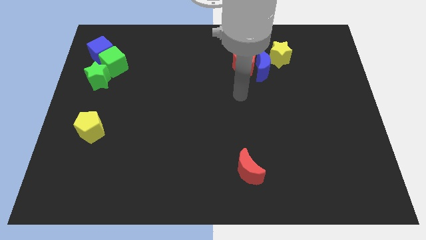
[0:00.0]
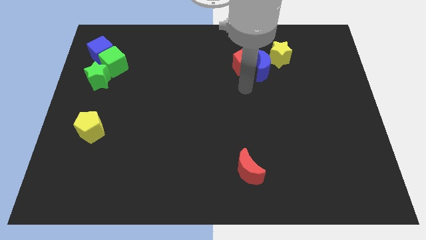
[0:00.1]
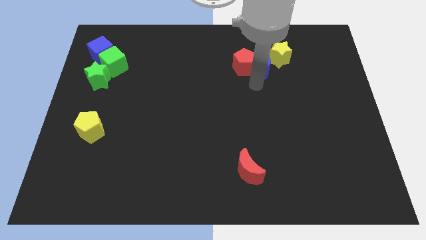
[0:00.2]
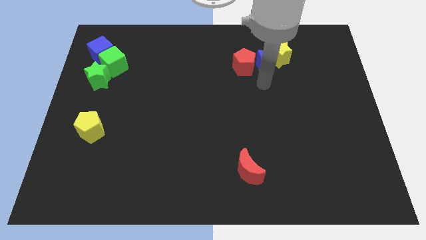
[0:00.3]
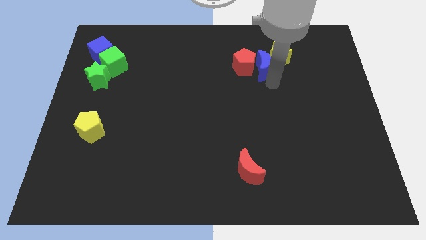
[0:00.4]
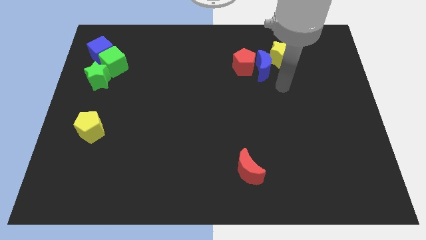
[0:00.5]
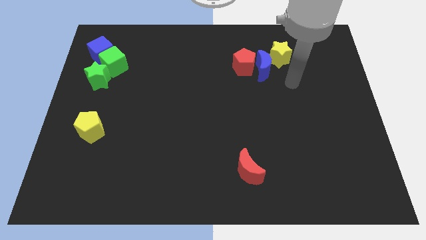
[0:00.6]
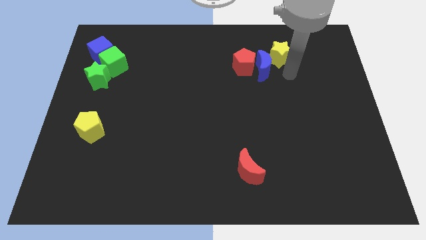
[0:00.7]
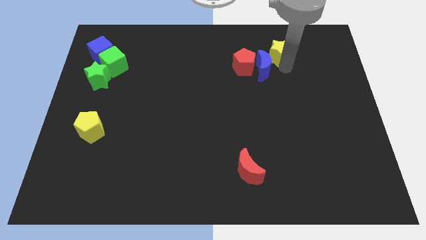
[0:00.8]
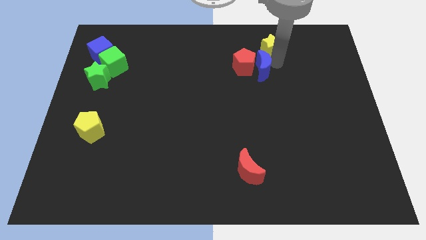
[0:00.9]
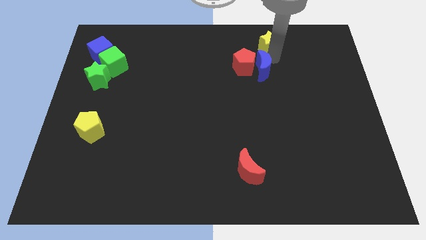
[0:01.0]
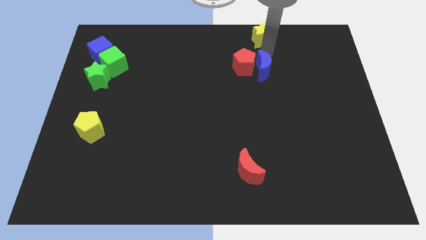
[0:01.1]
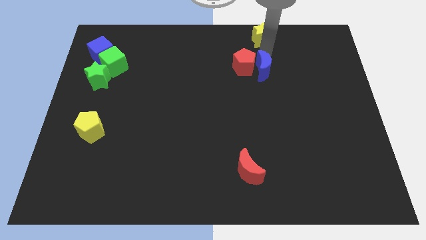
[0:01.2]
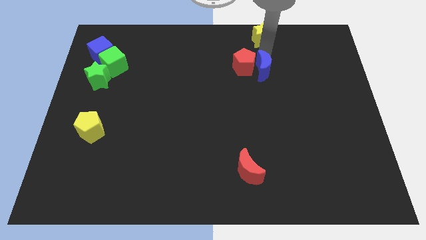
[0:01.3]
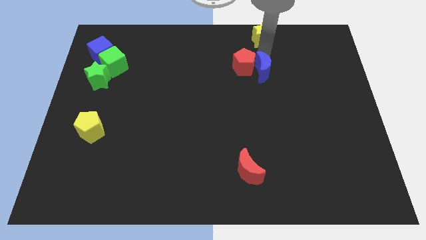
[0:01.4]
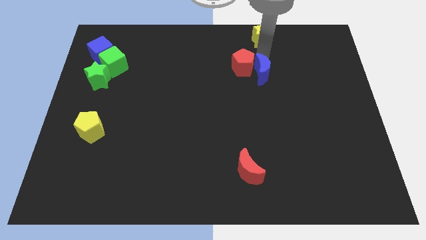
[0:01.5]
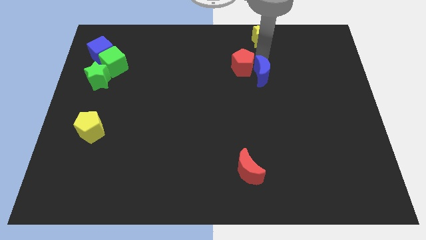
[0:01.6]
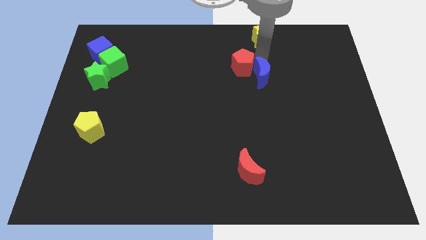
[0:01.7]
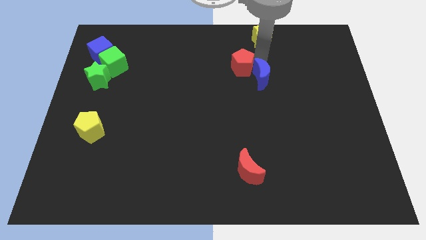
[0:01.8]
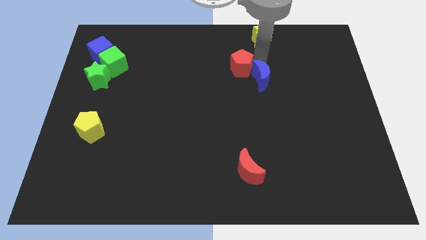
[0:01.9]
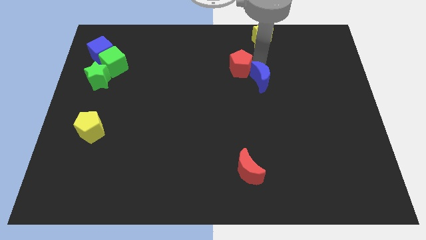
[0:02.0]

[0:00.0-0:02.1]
separate the blue moon from the red pentagon and yellow star

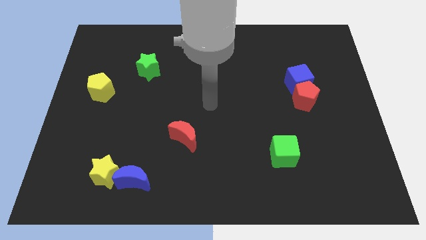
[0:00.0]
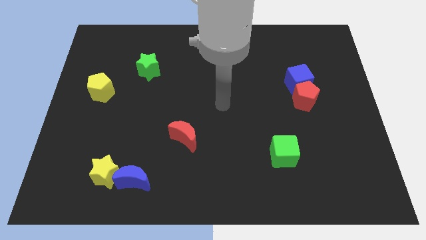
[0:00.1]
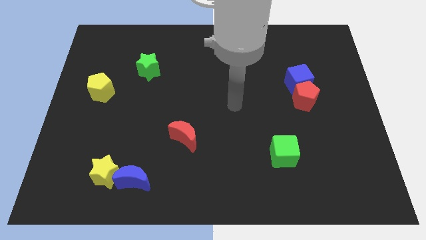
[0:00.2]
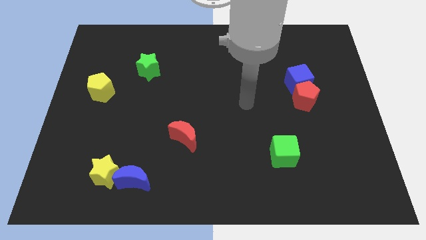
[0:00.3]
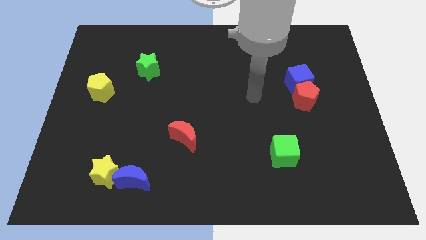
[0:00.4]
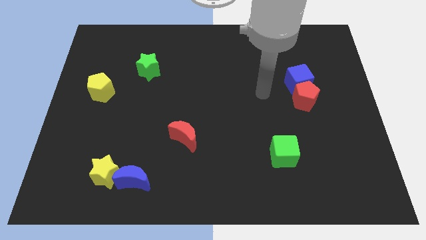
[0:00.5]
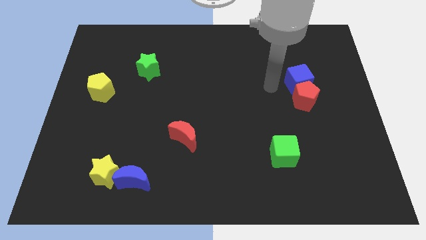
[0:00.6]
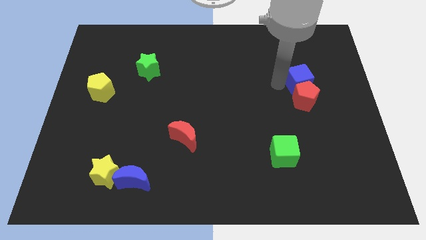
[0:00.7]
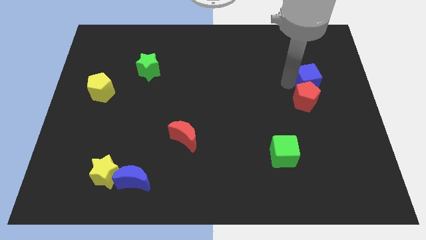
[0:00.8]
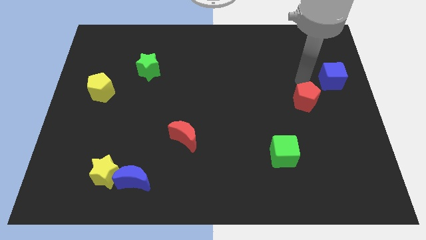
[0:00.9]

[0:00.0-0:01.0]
pull the red pentagon apart from the blue cube

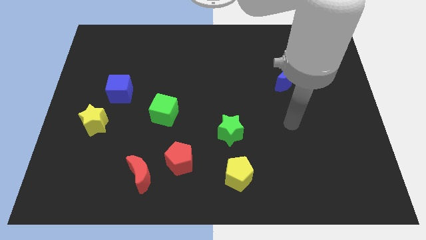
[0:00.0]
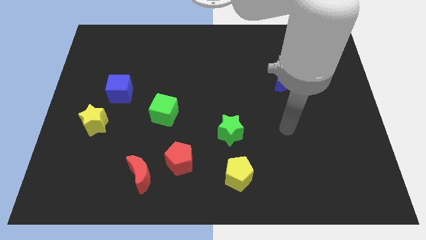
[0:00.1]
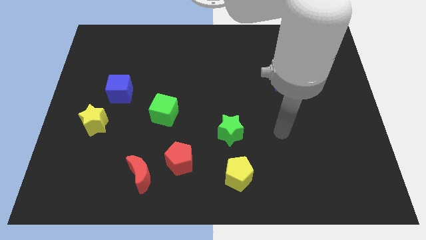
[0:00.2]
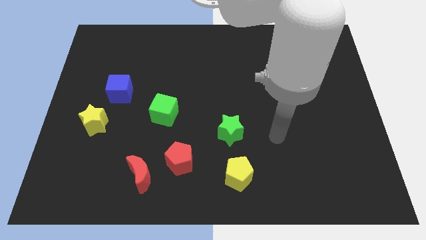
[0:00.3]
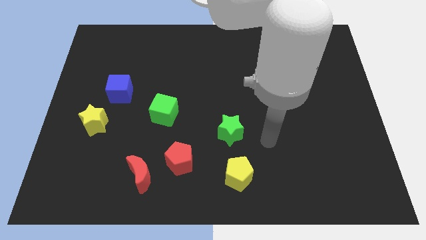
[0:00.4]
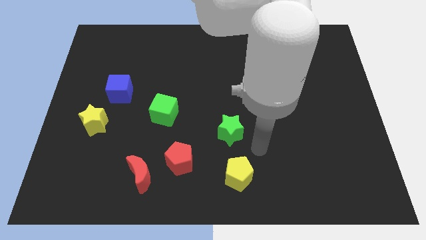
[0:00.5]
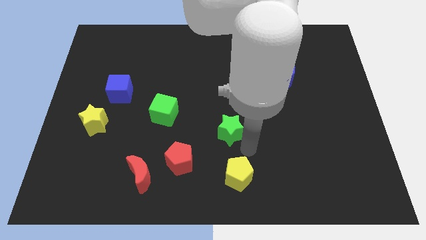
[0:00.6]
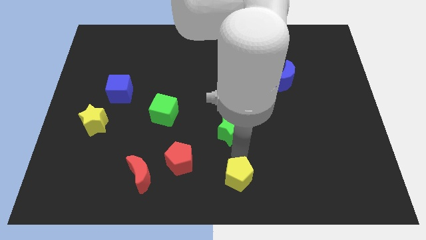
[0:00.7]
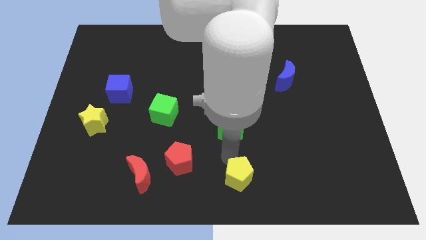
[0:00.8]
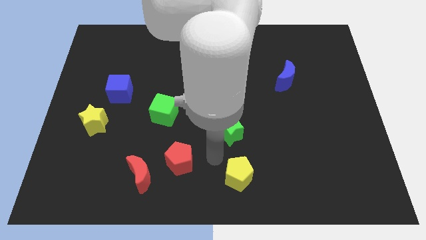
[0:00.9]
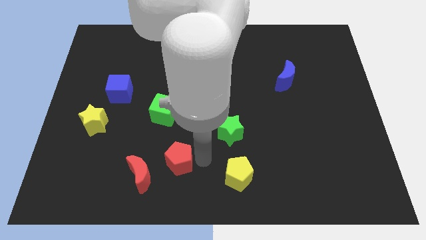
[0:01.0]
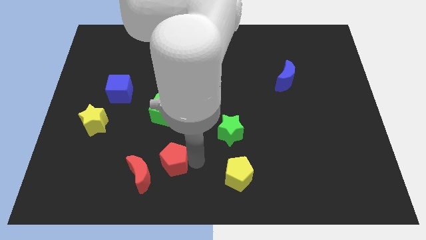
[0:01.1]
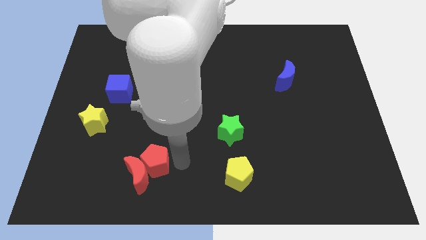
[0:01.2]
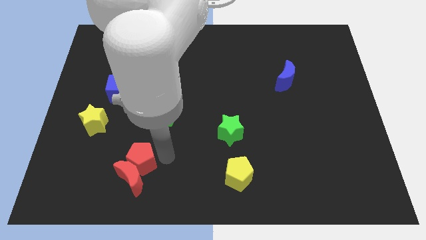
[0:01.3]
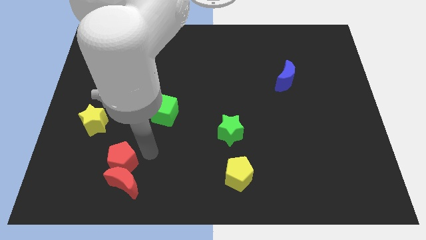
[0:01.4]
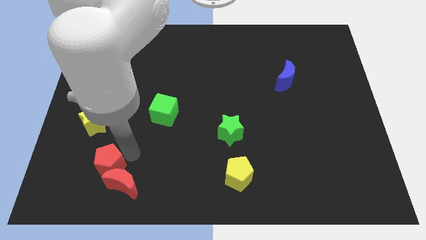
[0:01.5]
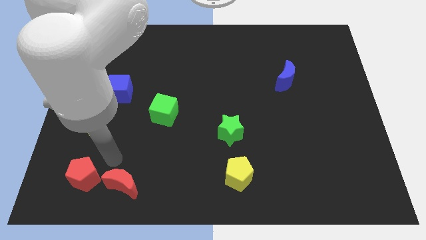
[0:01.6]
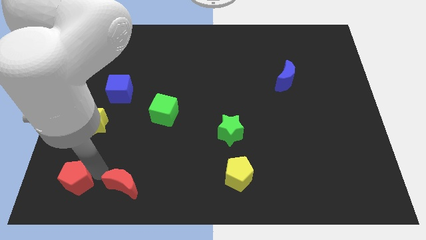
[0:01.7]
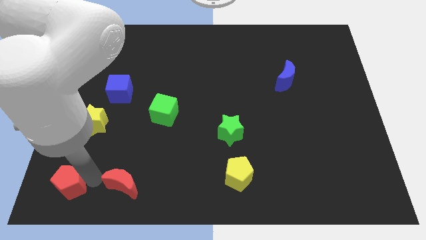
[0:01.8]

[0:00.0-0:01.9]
separate the red moon from the red pentagon

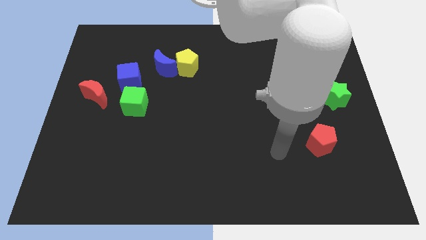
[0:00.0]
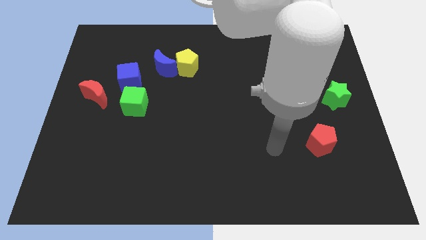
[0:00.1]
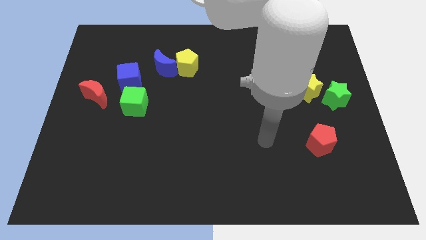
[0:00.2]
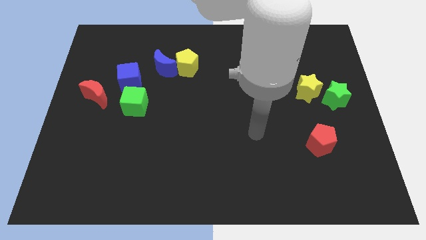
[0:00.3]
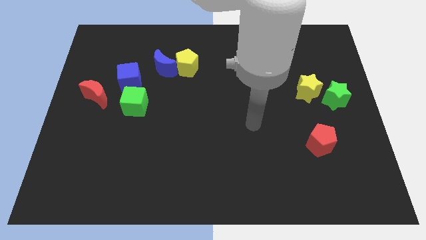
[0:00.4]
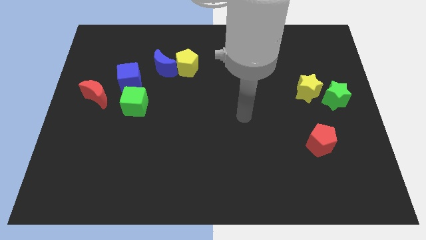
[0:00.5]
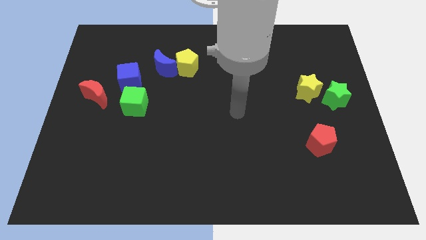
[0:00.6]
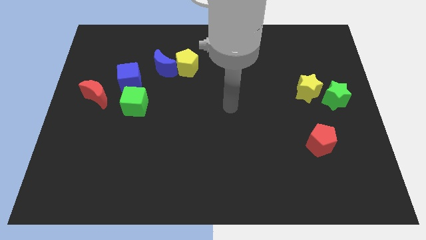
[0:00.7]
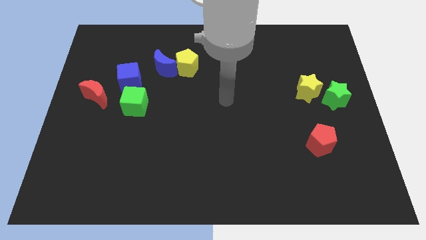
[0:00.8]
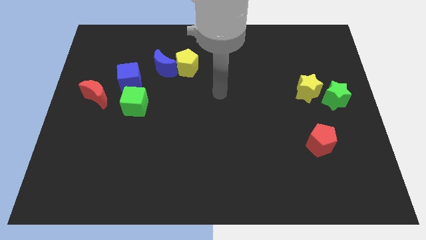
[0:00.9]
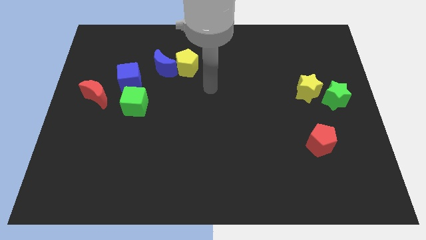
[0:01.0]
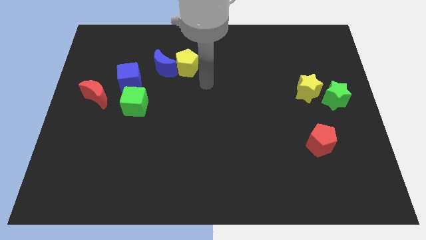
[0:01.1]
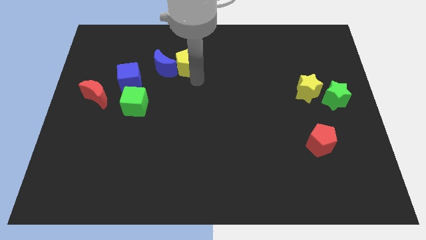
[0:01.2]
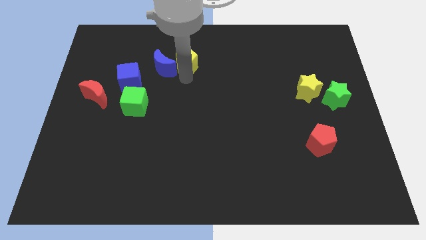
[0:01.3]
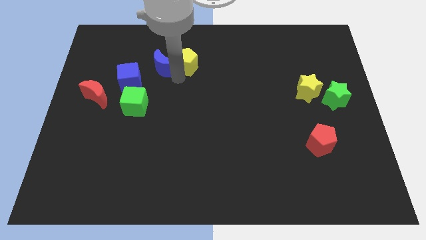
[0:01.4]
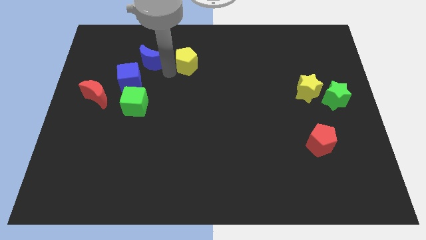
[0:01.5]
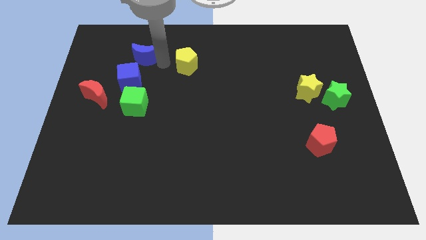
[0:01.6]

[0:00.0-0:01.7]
separate the yellow pentagon from the blue moon

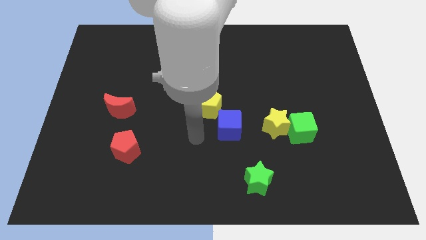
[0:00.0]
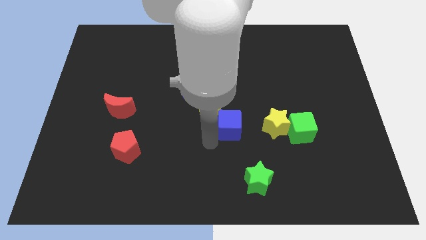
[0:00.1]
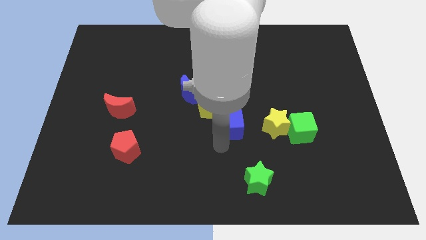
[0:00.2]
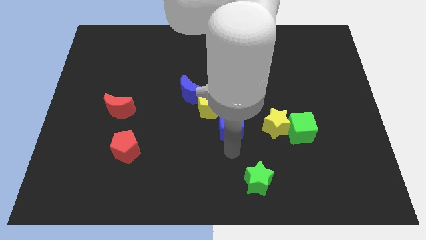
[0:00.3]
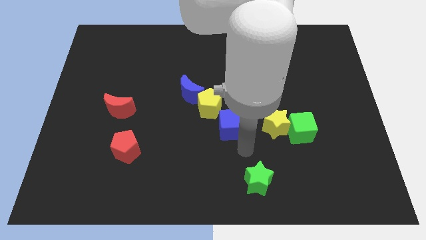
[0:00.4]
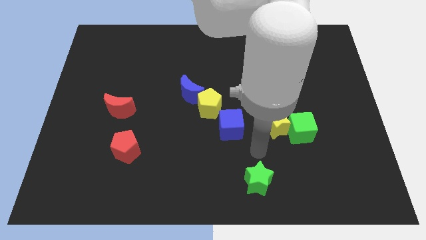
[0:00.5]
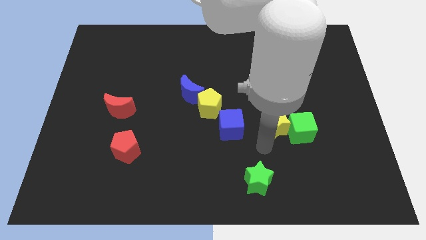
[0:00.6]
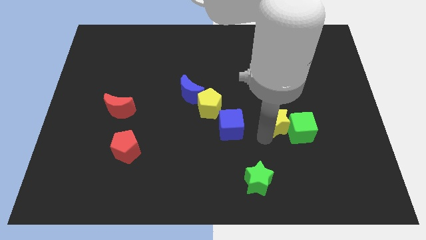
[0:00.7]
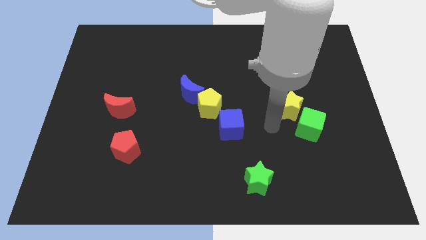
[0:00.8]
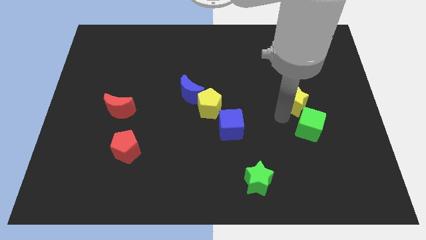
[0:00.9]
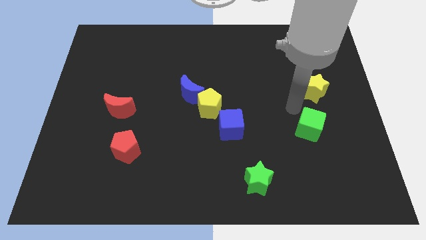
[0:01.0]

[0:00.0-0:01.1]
separate the green cube from the yellow star

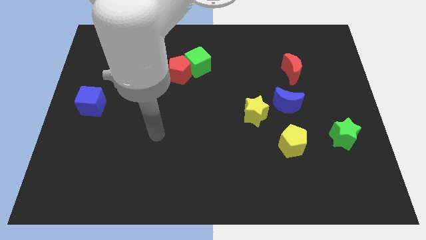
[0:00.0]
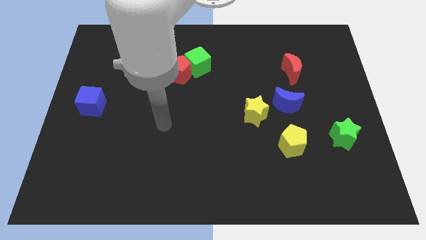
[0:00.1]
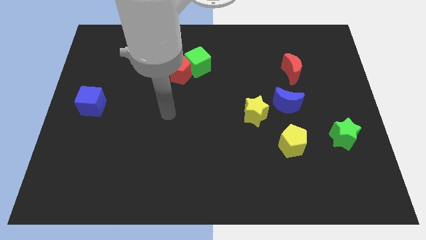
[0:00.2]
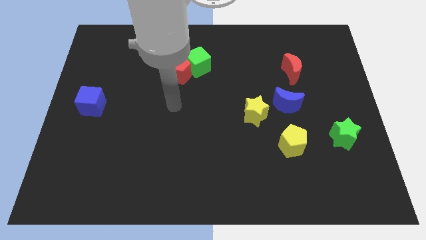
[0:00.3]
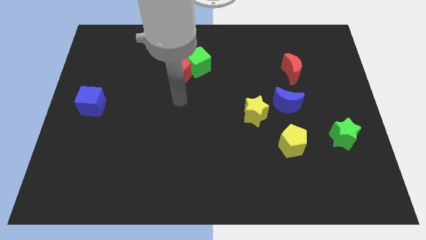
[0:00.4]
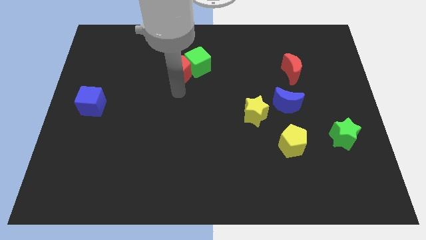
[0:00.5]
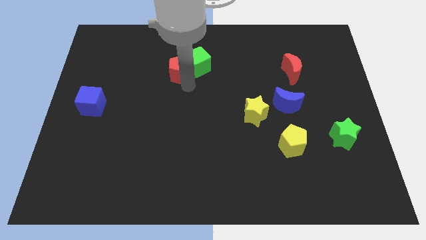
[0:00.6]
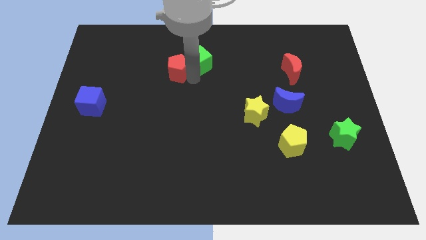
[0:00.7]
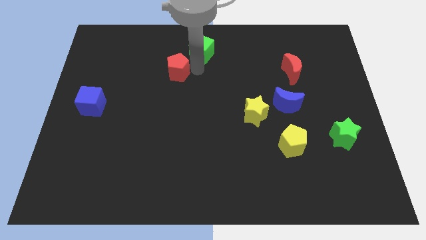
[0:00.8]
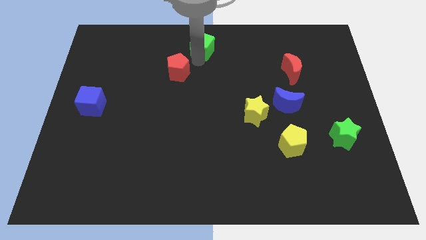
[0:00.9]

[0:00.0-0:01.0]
separate the red pentagon from the green cube

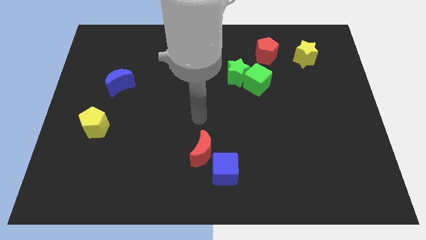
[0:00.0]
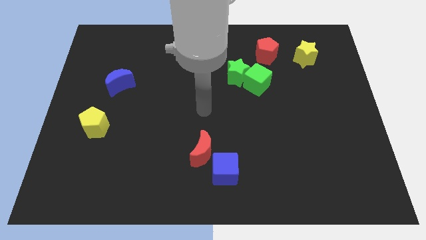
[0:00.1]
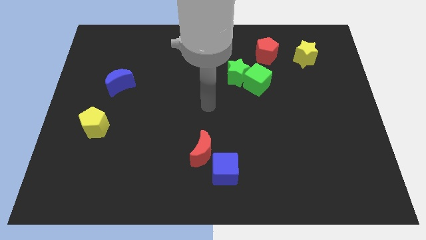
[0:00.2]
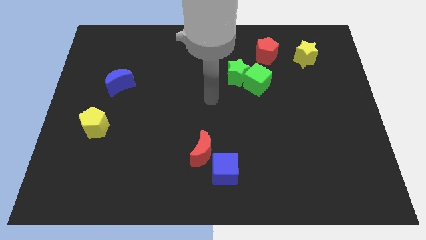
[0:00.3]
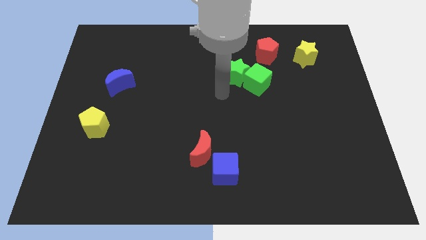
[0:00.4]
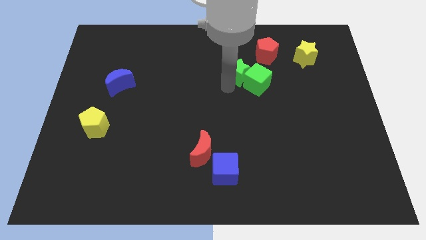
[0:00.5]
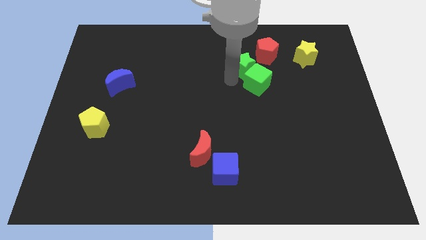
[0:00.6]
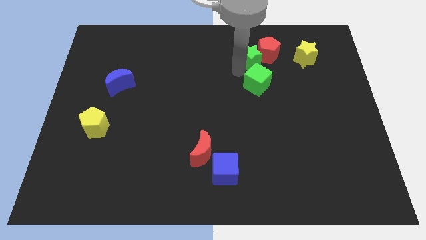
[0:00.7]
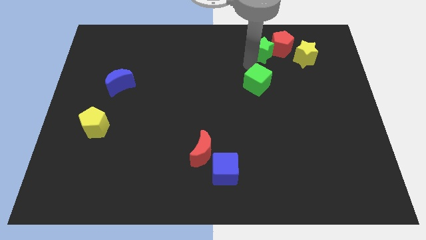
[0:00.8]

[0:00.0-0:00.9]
move the green cube away from the green star
